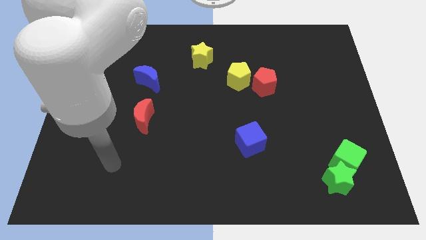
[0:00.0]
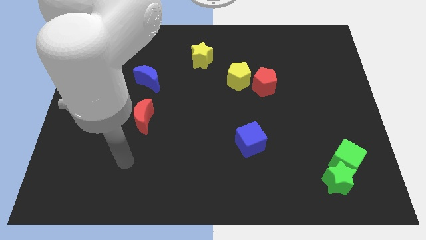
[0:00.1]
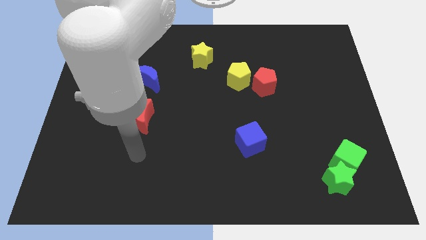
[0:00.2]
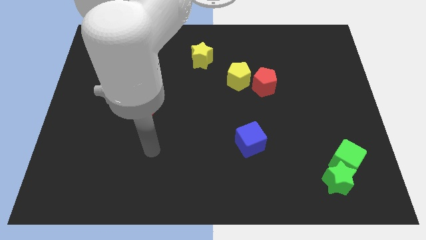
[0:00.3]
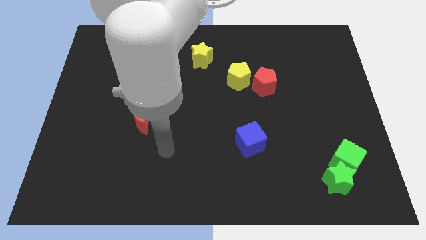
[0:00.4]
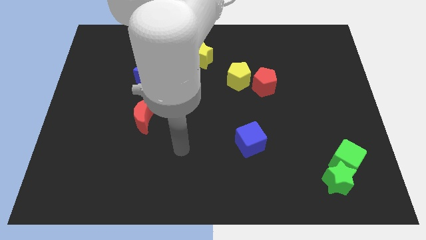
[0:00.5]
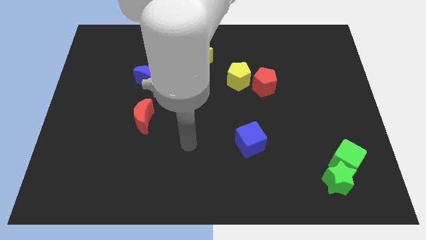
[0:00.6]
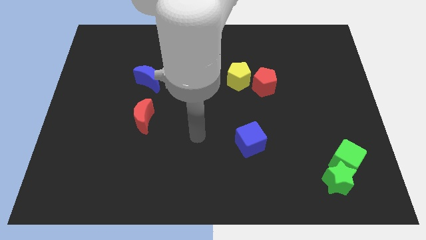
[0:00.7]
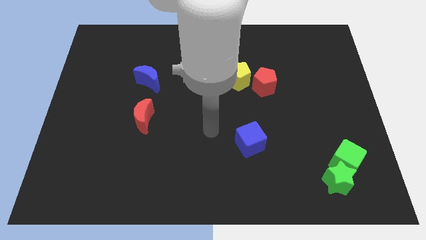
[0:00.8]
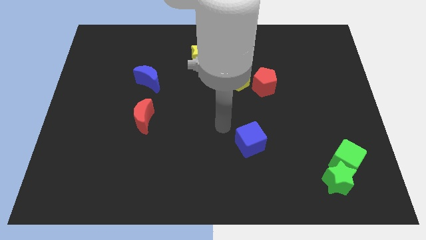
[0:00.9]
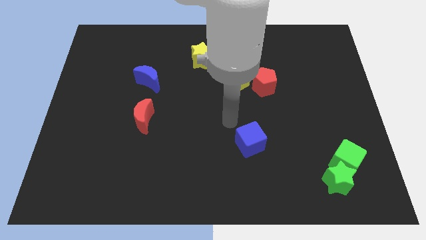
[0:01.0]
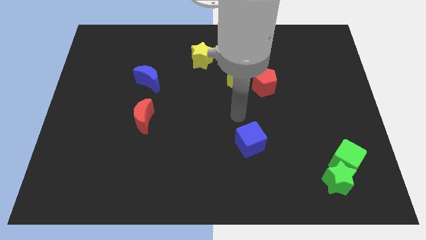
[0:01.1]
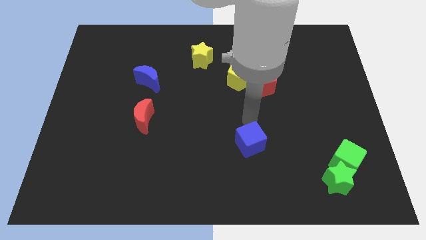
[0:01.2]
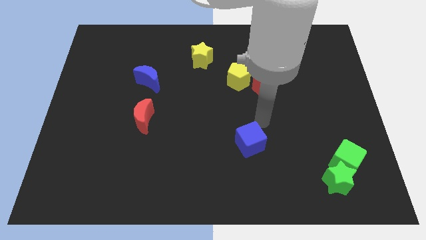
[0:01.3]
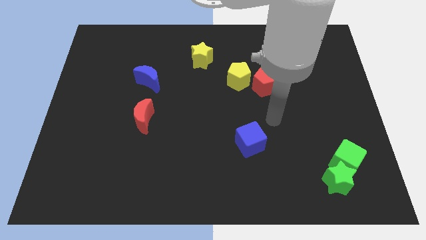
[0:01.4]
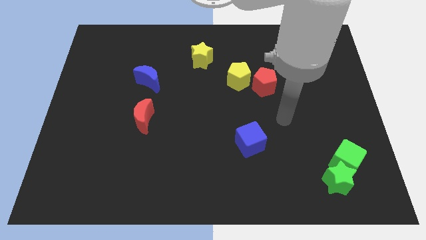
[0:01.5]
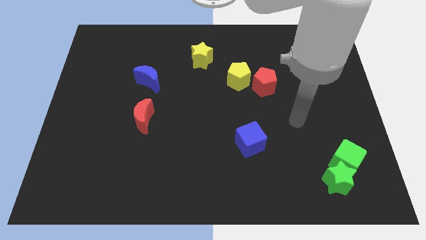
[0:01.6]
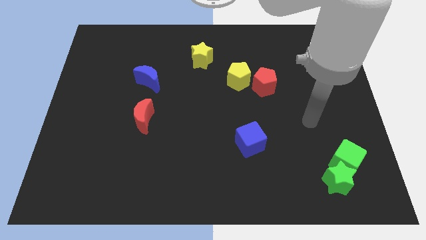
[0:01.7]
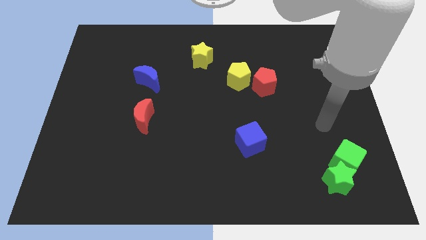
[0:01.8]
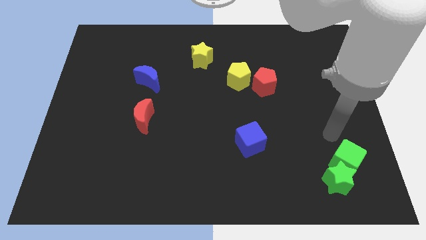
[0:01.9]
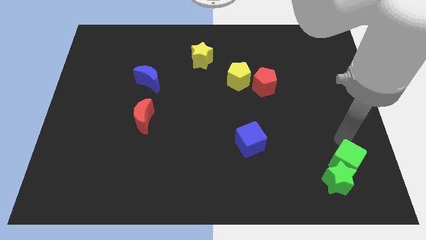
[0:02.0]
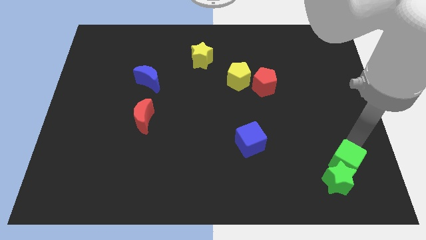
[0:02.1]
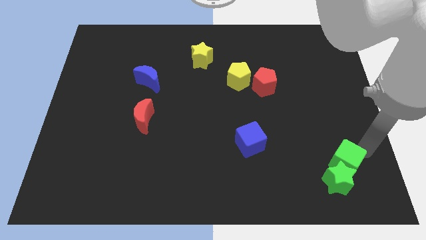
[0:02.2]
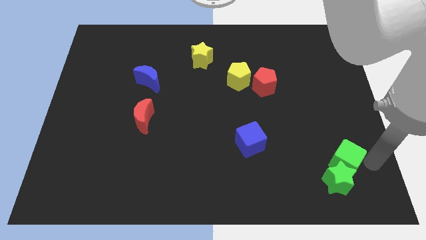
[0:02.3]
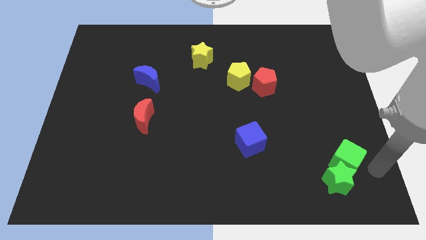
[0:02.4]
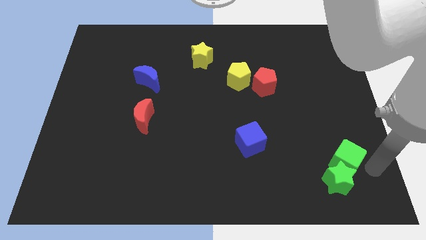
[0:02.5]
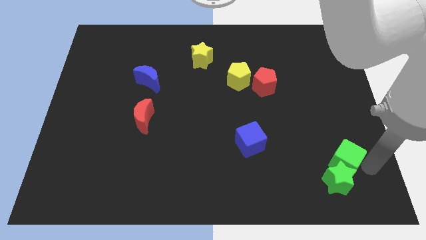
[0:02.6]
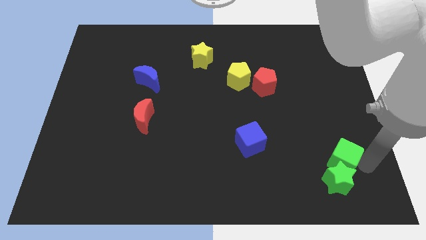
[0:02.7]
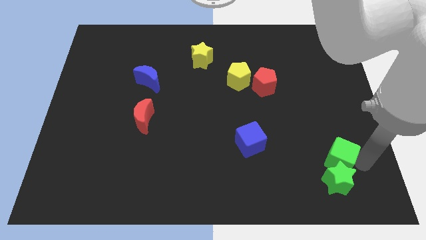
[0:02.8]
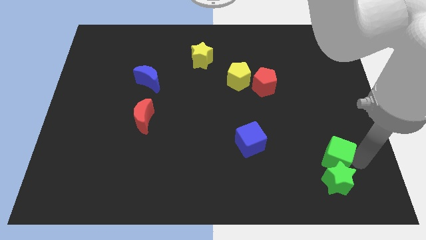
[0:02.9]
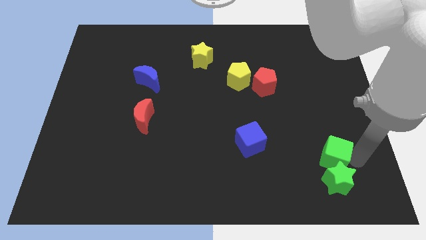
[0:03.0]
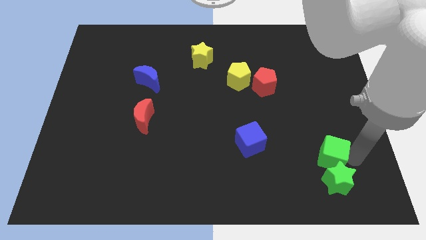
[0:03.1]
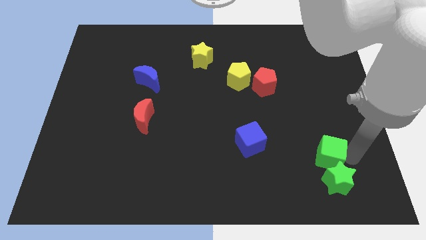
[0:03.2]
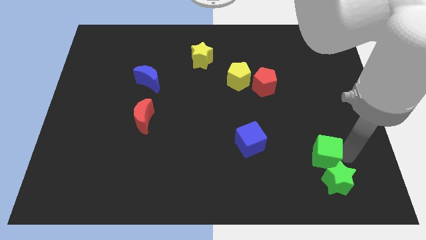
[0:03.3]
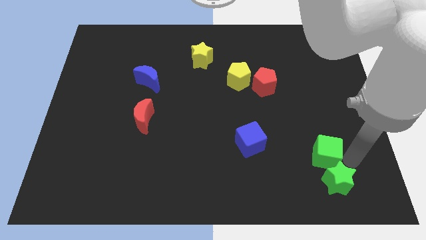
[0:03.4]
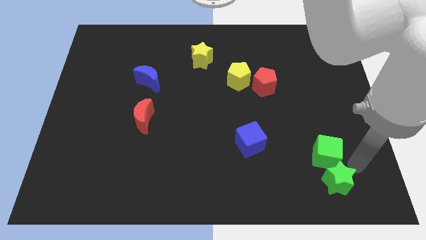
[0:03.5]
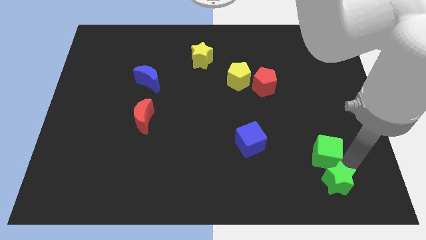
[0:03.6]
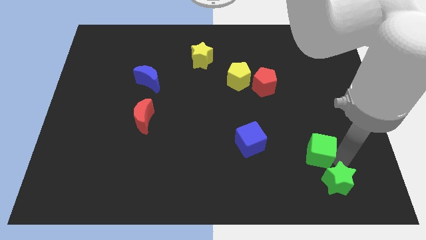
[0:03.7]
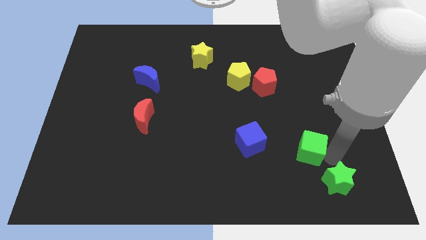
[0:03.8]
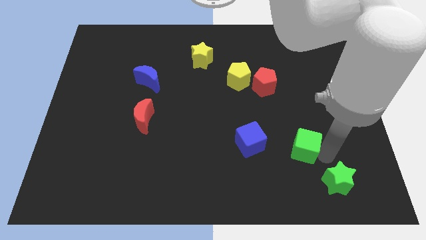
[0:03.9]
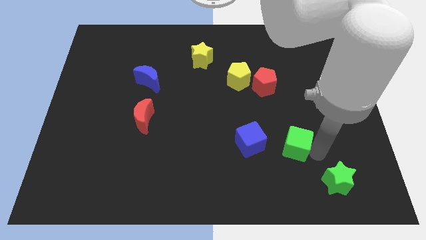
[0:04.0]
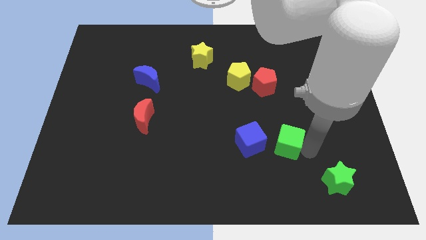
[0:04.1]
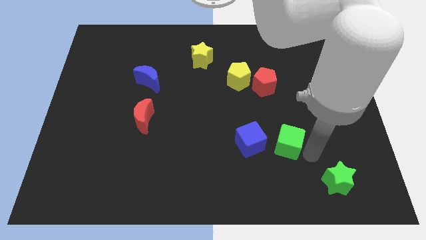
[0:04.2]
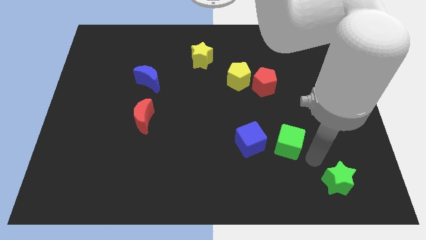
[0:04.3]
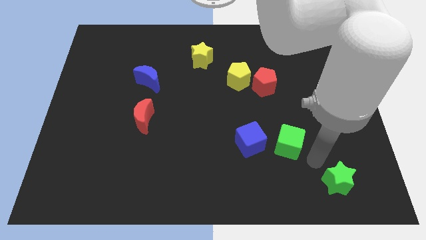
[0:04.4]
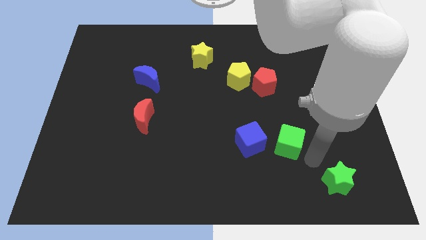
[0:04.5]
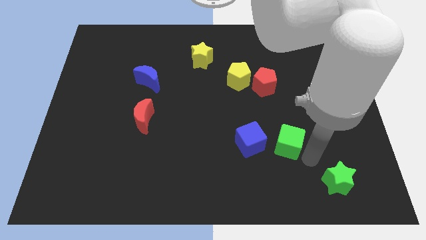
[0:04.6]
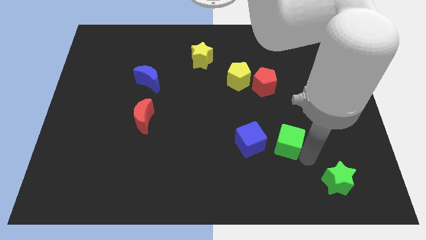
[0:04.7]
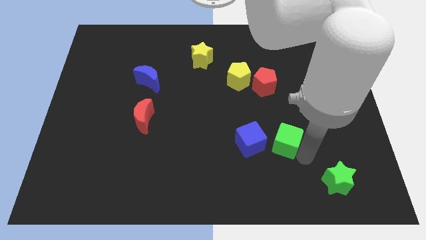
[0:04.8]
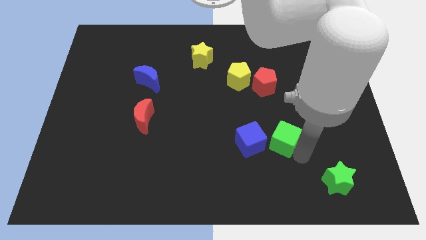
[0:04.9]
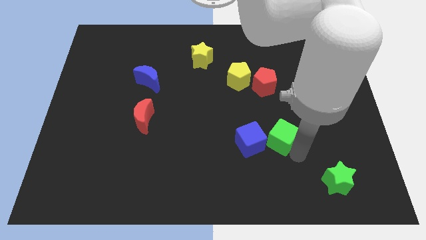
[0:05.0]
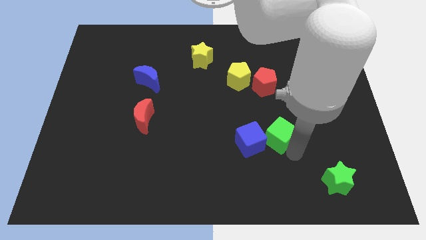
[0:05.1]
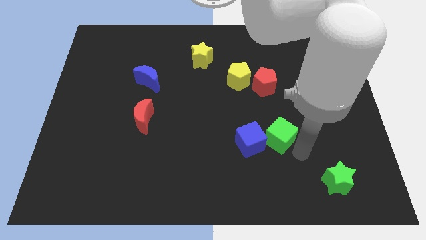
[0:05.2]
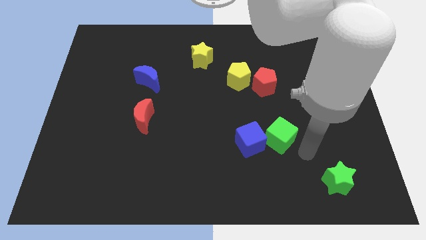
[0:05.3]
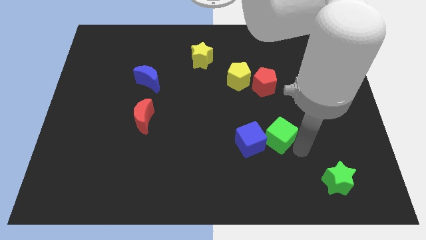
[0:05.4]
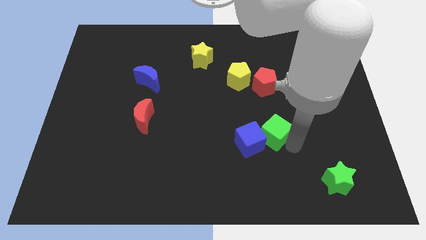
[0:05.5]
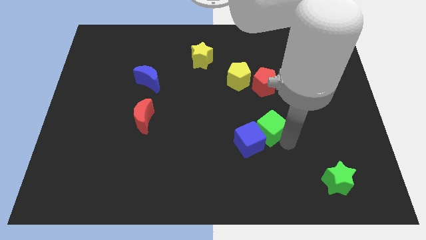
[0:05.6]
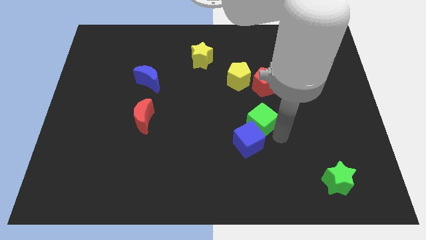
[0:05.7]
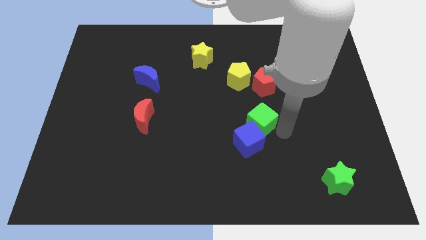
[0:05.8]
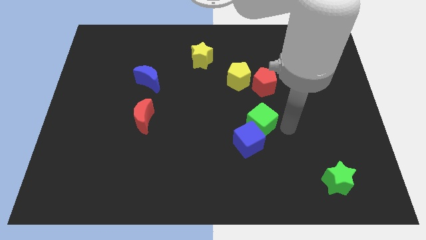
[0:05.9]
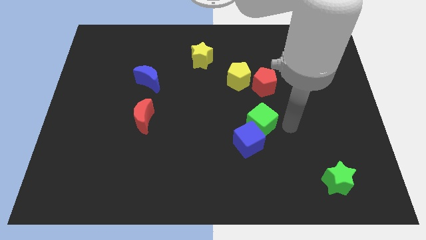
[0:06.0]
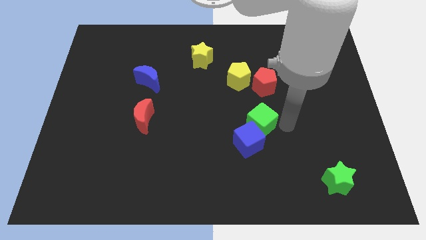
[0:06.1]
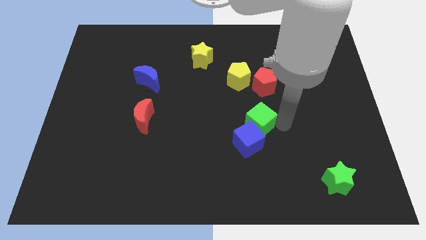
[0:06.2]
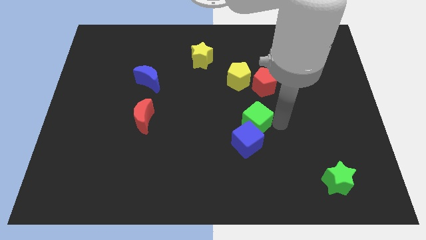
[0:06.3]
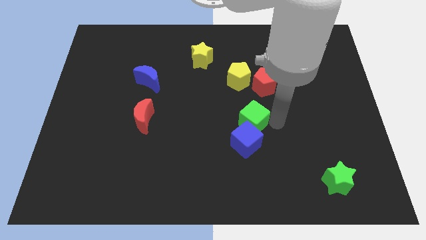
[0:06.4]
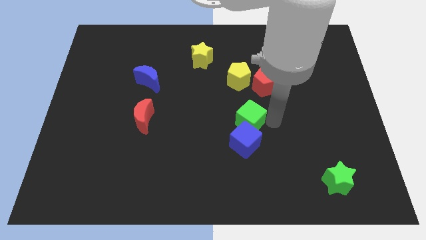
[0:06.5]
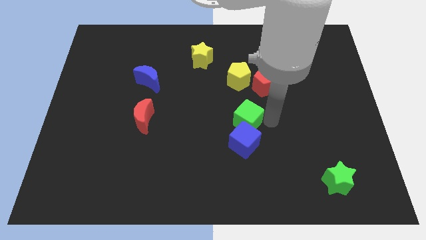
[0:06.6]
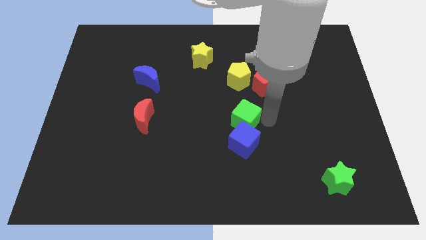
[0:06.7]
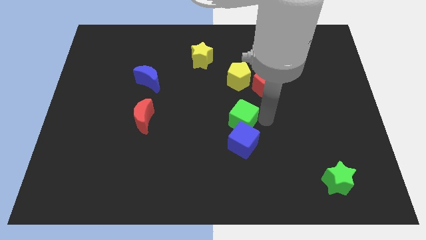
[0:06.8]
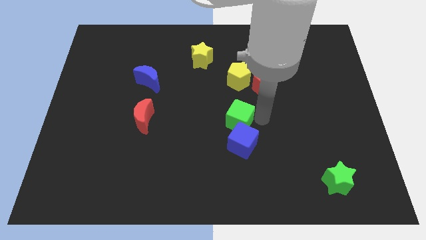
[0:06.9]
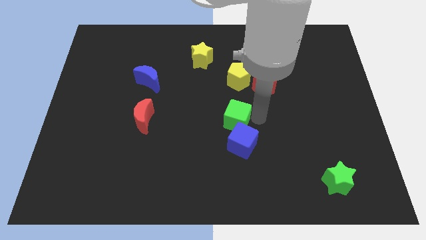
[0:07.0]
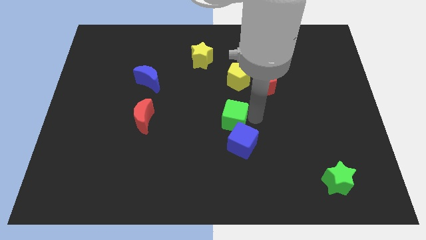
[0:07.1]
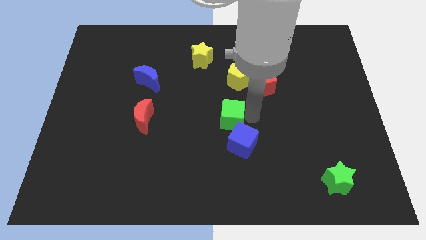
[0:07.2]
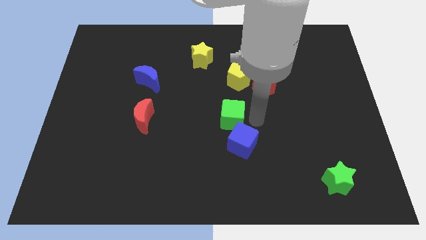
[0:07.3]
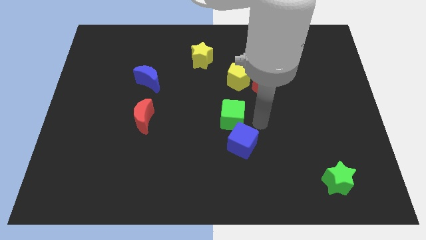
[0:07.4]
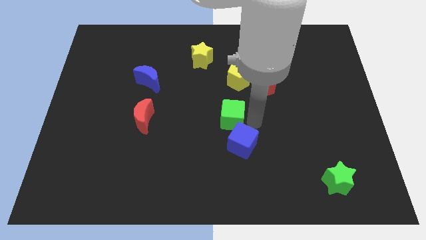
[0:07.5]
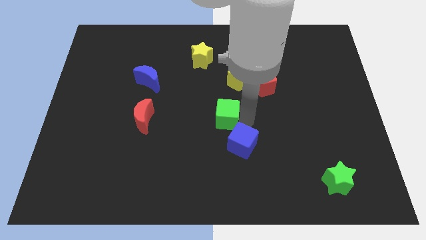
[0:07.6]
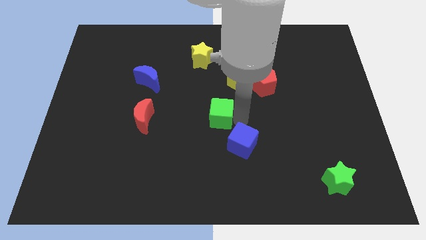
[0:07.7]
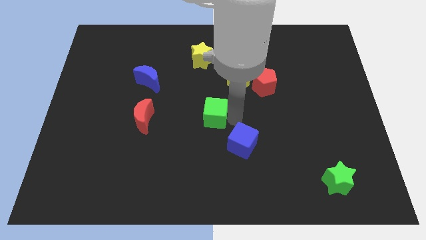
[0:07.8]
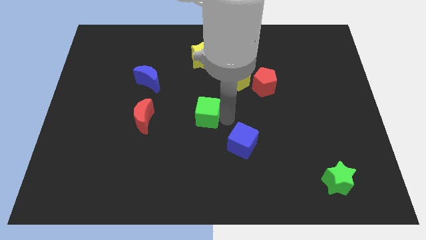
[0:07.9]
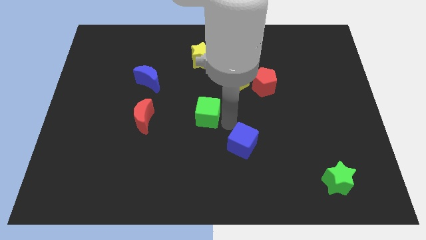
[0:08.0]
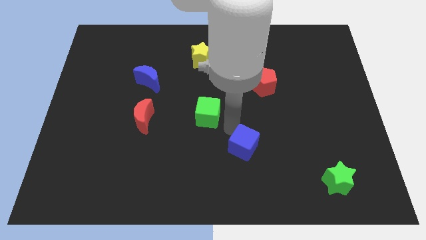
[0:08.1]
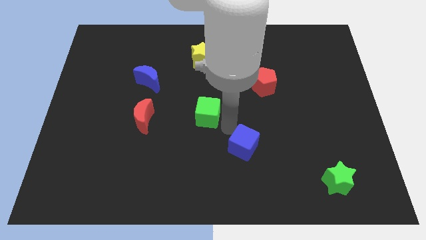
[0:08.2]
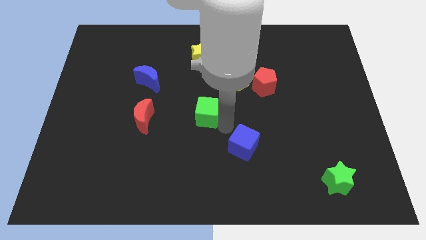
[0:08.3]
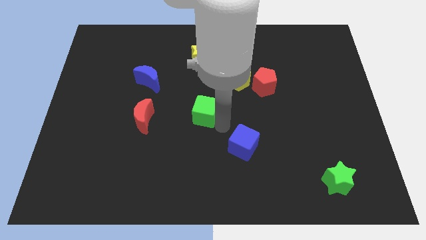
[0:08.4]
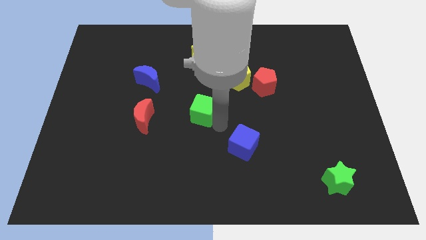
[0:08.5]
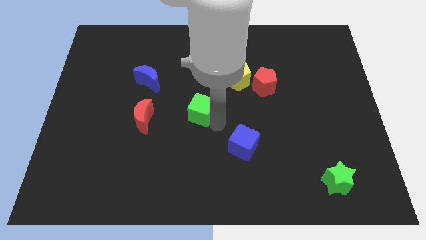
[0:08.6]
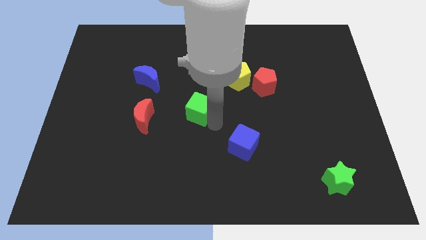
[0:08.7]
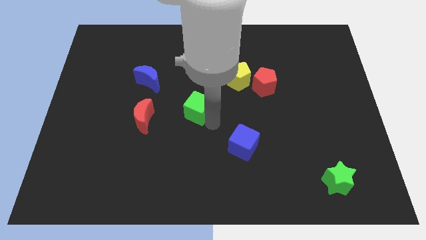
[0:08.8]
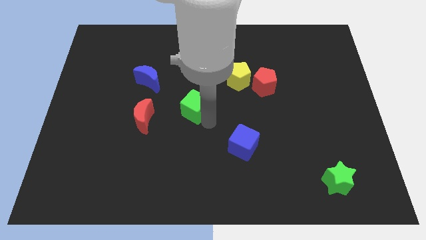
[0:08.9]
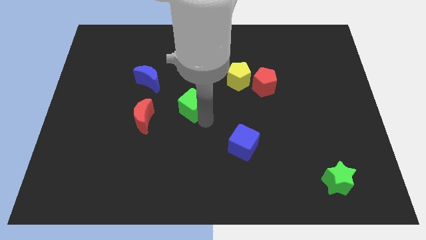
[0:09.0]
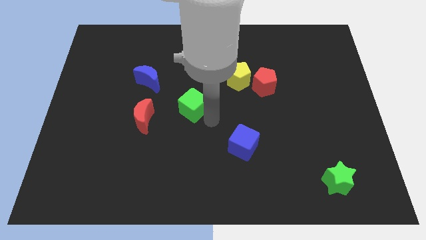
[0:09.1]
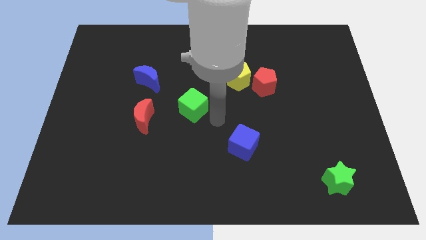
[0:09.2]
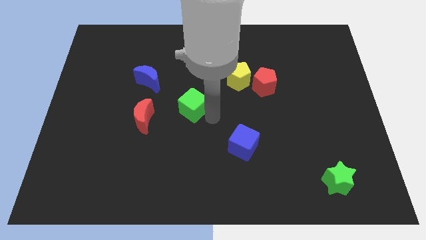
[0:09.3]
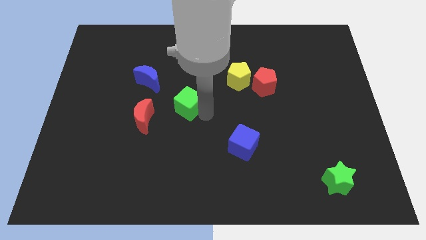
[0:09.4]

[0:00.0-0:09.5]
put the green cube diagonally down and to the right of the blue moon
